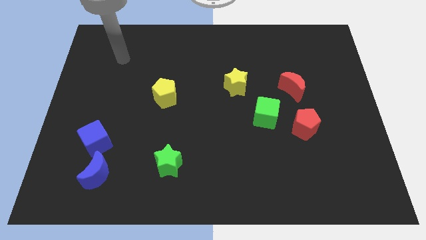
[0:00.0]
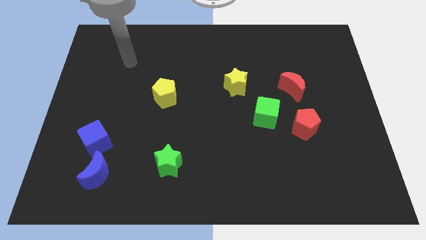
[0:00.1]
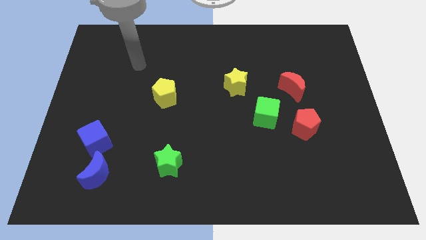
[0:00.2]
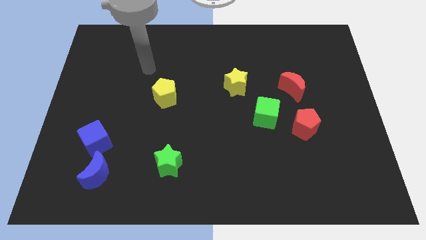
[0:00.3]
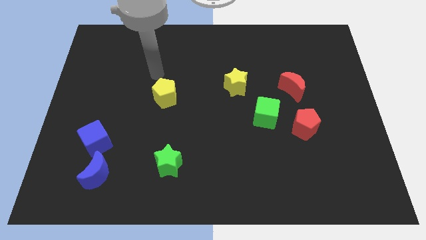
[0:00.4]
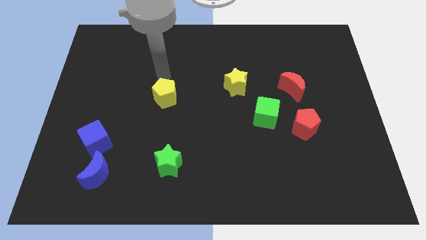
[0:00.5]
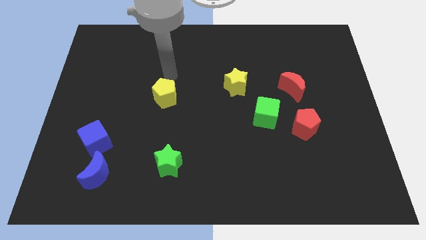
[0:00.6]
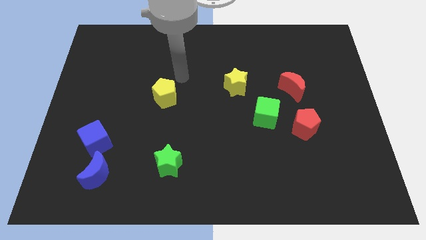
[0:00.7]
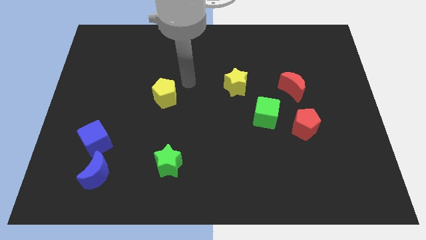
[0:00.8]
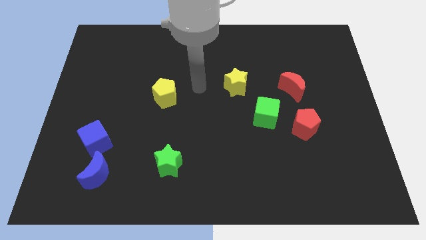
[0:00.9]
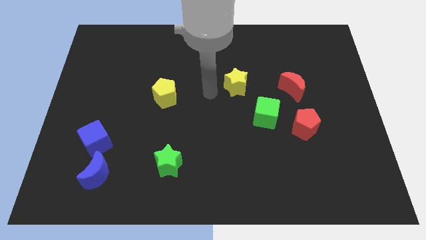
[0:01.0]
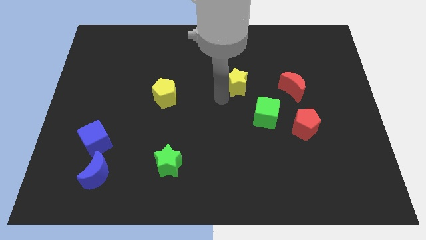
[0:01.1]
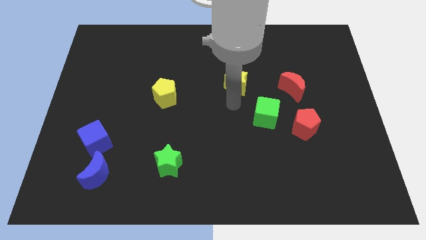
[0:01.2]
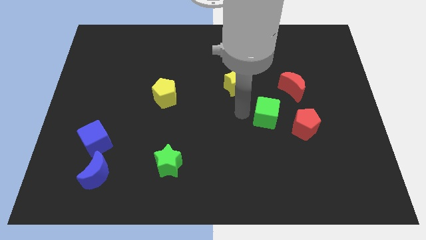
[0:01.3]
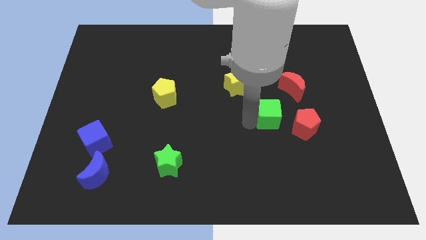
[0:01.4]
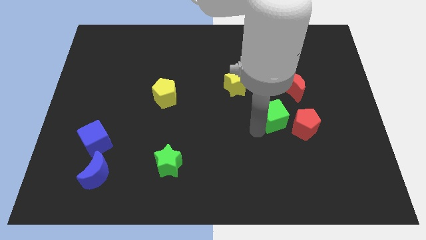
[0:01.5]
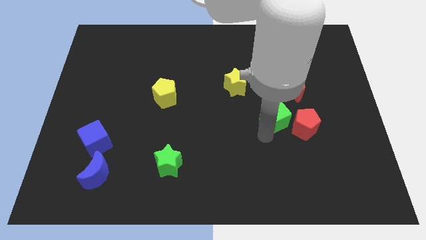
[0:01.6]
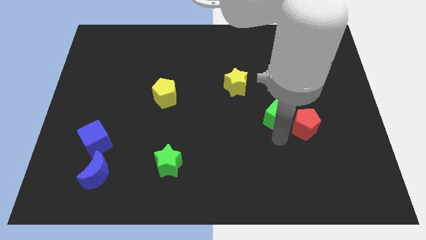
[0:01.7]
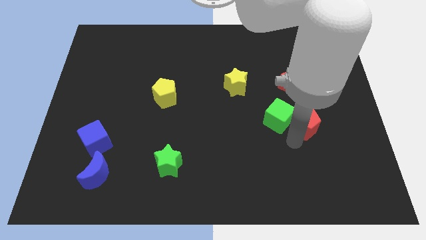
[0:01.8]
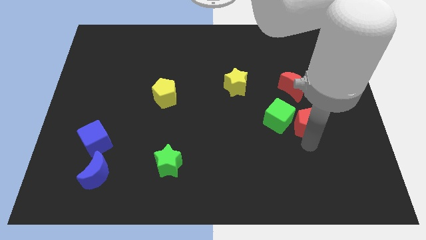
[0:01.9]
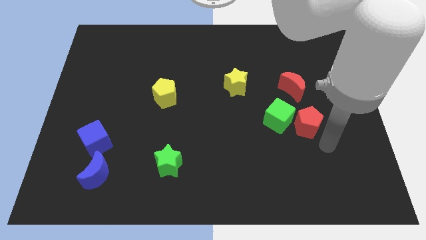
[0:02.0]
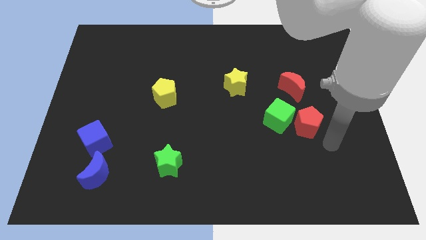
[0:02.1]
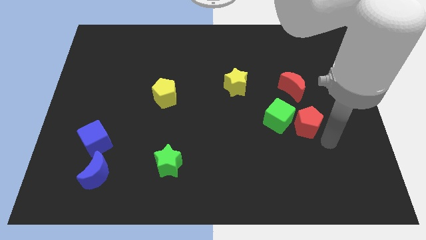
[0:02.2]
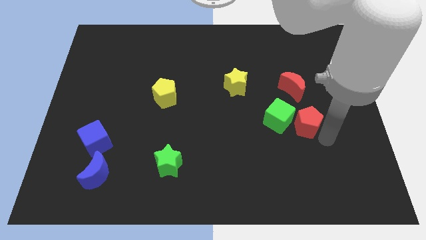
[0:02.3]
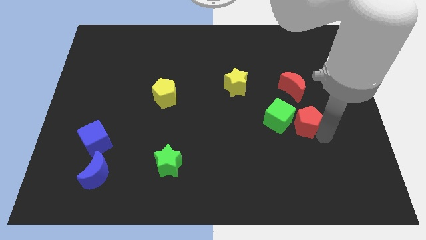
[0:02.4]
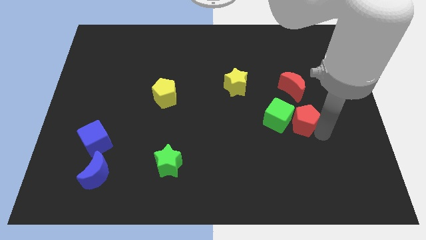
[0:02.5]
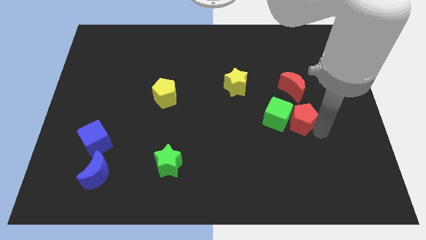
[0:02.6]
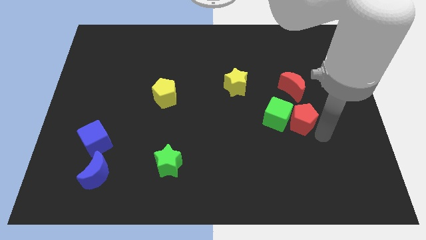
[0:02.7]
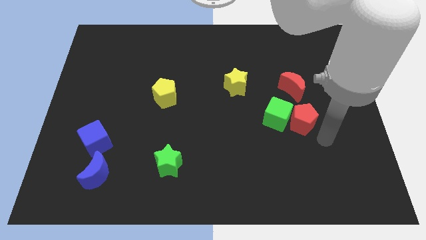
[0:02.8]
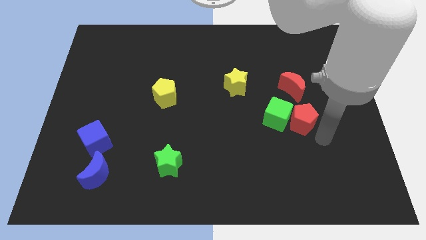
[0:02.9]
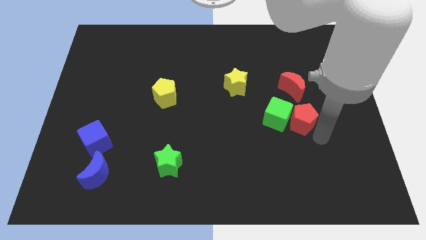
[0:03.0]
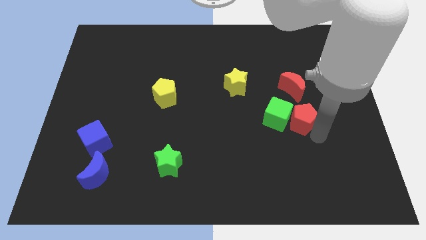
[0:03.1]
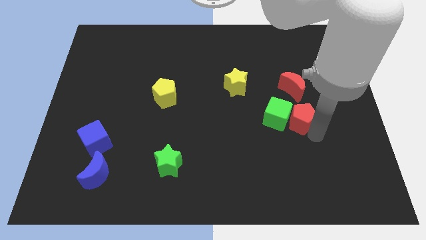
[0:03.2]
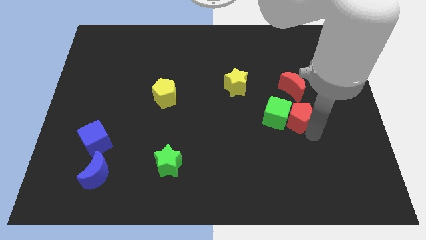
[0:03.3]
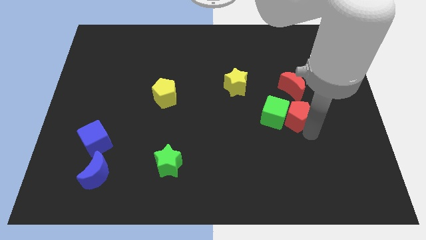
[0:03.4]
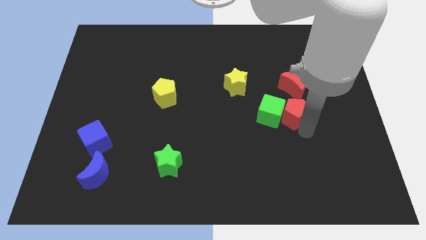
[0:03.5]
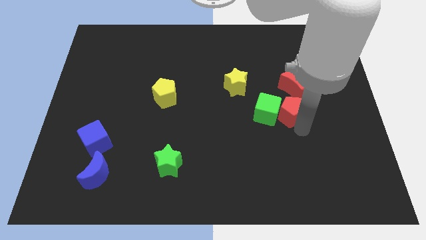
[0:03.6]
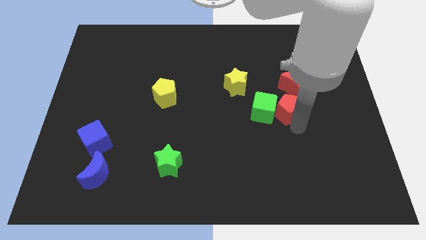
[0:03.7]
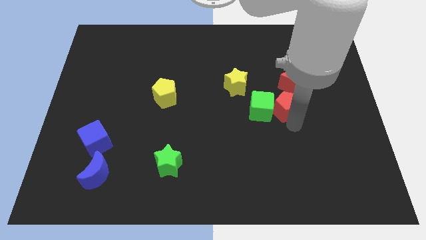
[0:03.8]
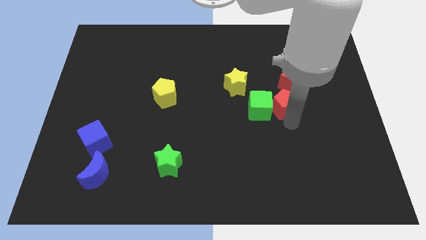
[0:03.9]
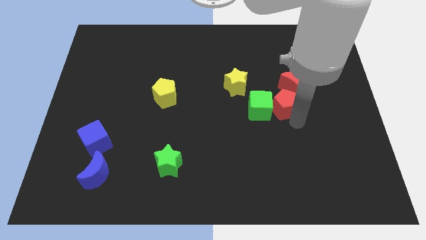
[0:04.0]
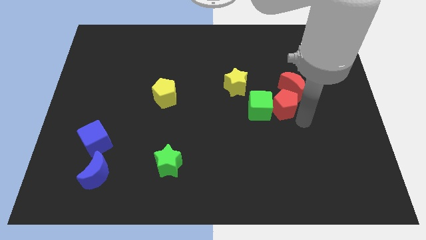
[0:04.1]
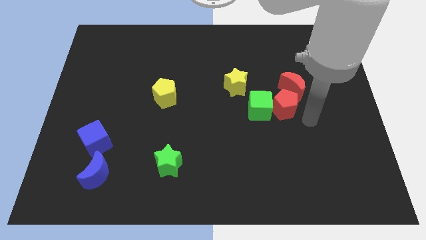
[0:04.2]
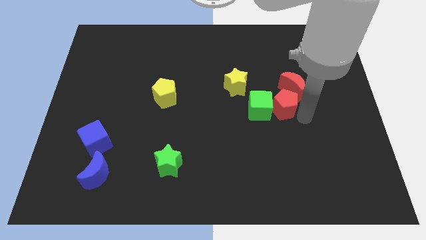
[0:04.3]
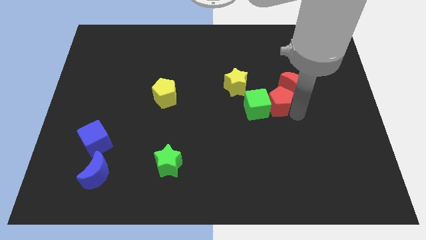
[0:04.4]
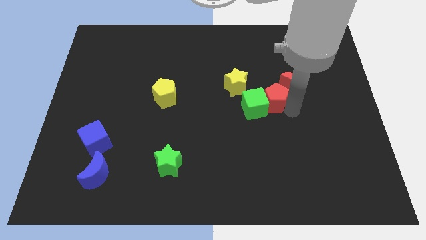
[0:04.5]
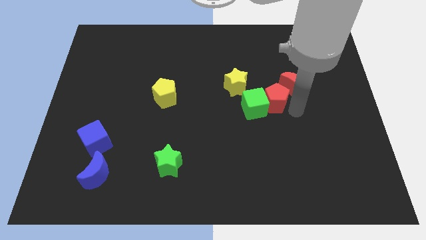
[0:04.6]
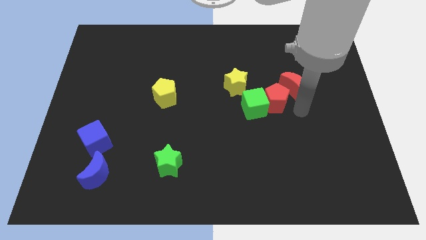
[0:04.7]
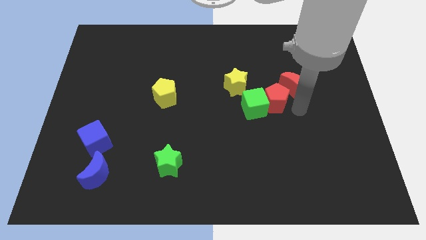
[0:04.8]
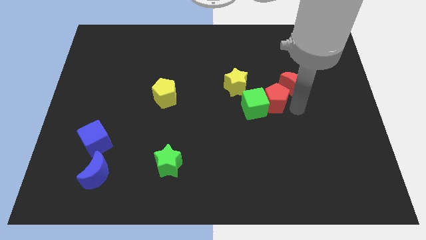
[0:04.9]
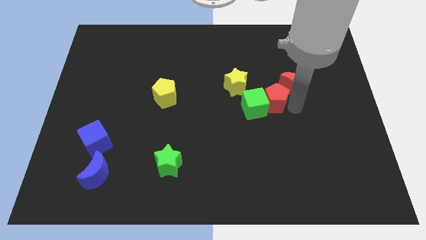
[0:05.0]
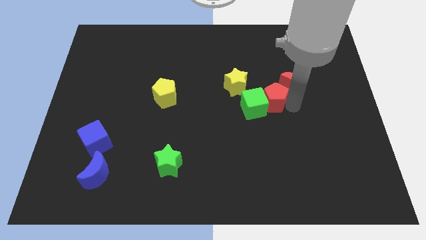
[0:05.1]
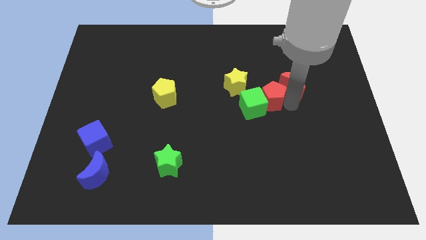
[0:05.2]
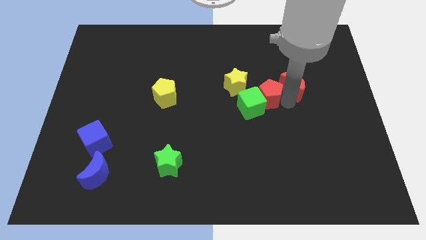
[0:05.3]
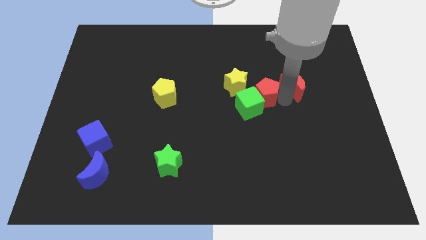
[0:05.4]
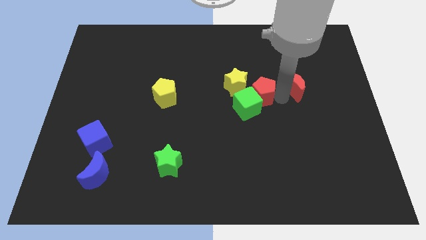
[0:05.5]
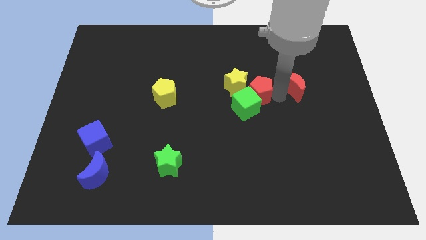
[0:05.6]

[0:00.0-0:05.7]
put the red pentagon towards the yellow star

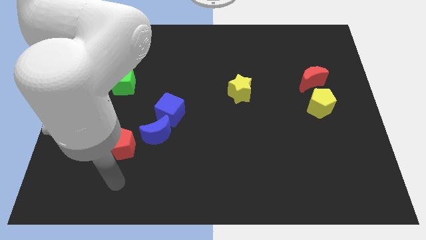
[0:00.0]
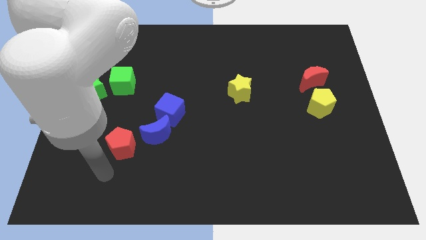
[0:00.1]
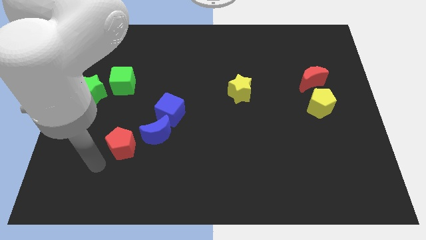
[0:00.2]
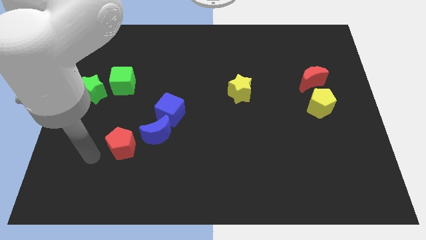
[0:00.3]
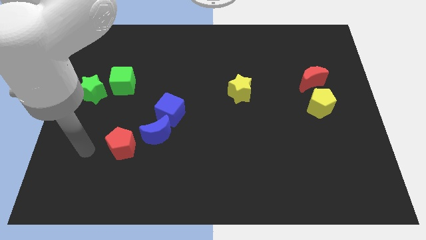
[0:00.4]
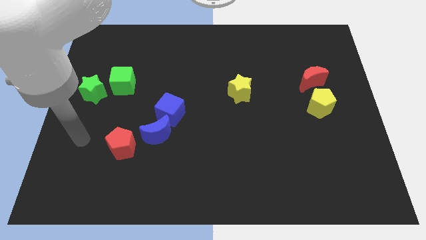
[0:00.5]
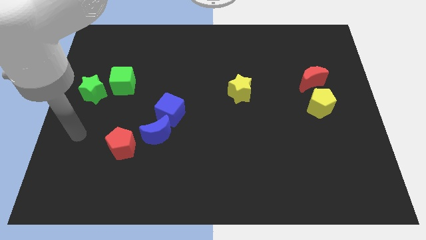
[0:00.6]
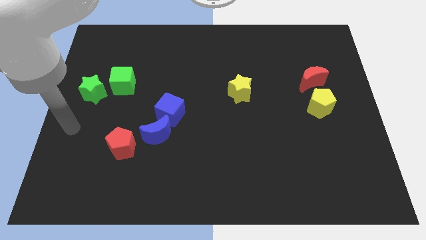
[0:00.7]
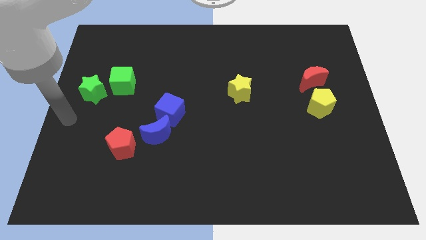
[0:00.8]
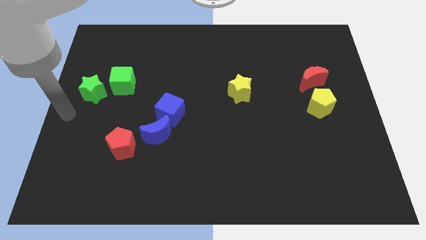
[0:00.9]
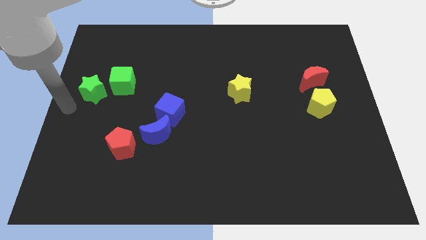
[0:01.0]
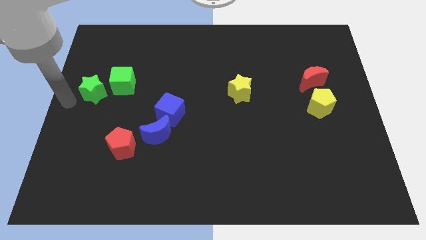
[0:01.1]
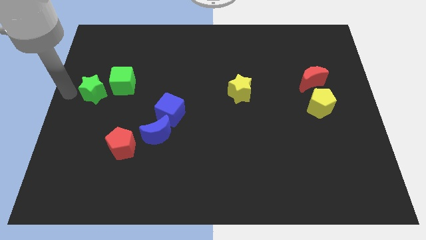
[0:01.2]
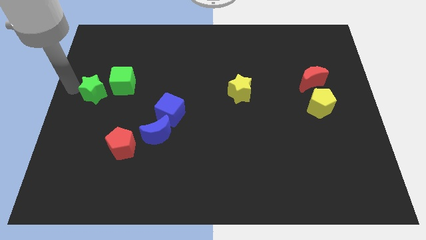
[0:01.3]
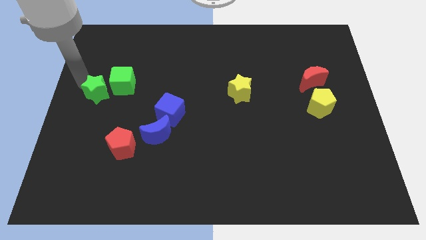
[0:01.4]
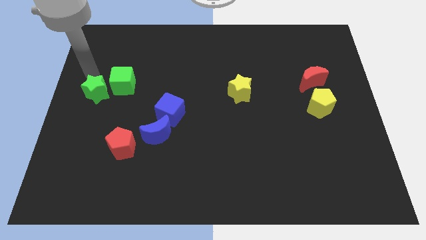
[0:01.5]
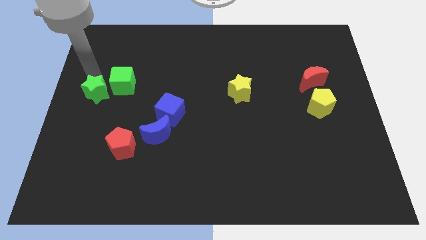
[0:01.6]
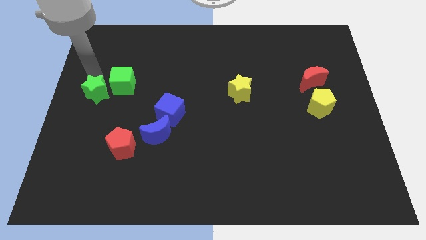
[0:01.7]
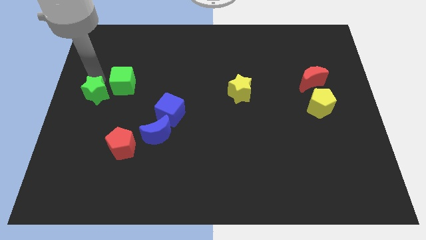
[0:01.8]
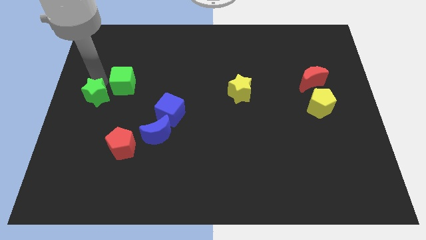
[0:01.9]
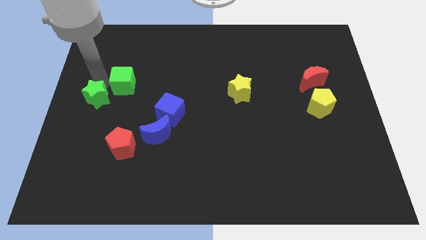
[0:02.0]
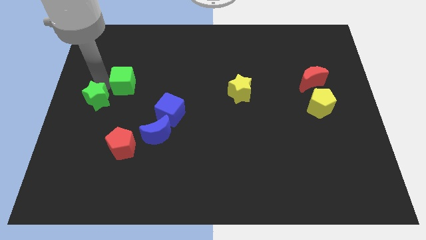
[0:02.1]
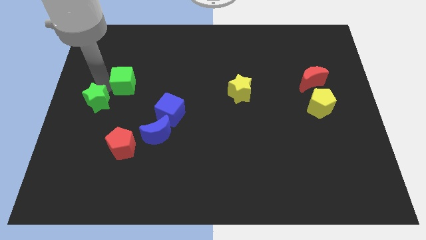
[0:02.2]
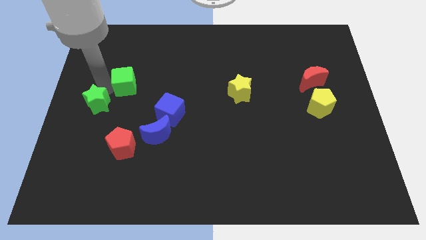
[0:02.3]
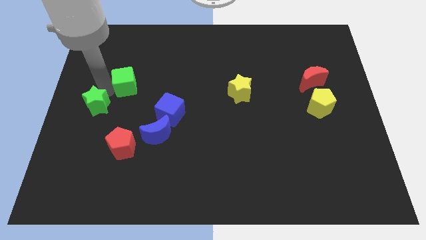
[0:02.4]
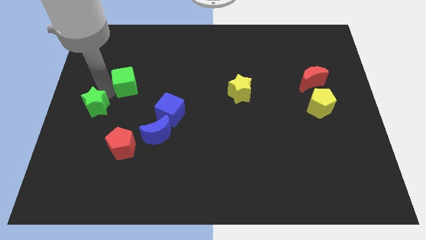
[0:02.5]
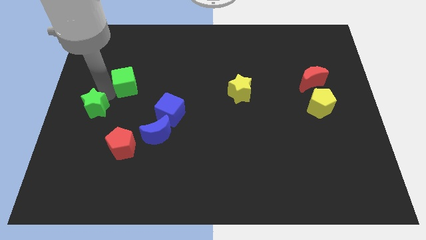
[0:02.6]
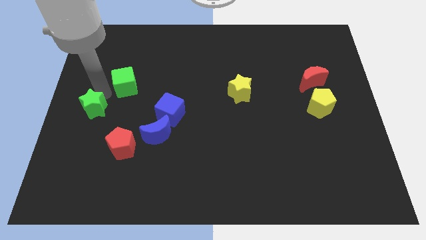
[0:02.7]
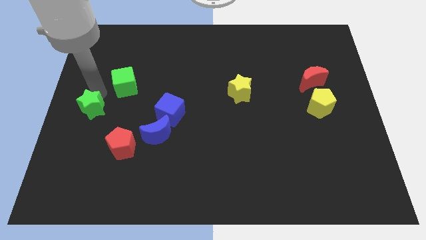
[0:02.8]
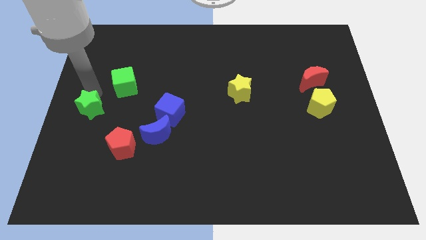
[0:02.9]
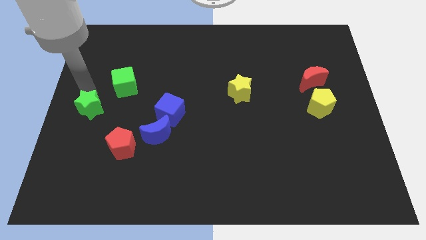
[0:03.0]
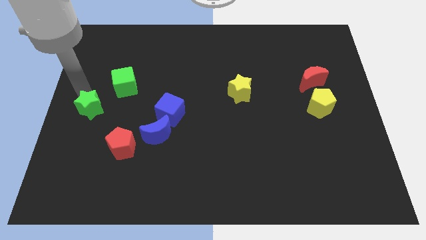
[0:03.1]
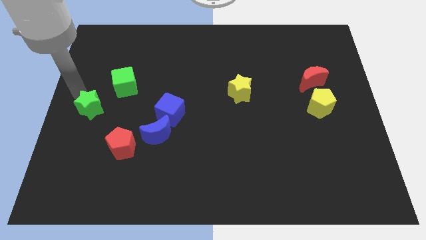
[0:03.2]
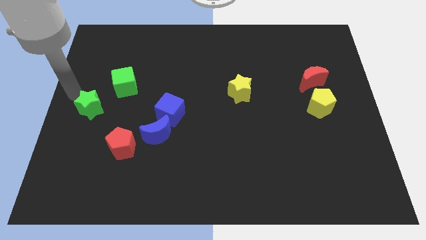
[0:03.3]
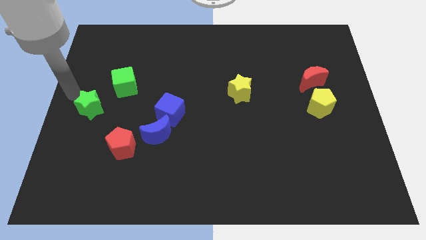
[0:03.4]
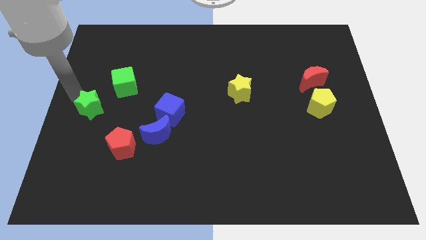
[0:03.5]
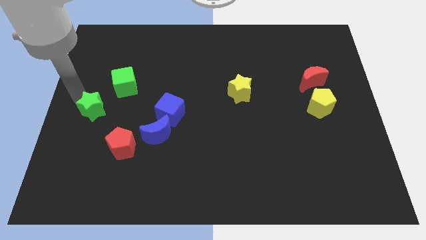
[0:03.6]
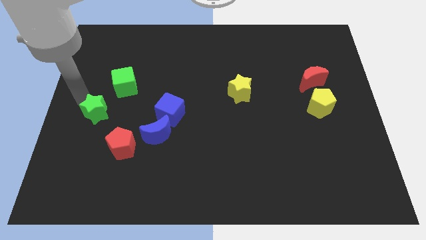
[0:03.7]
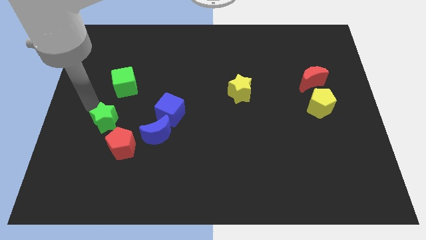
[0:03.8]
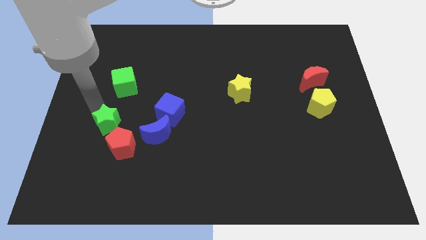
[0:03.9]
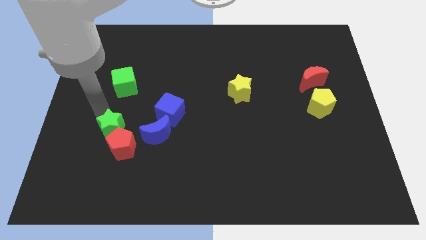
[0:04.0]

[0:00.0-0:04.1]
push the green star towards the red pentagon
